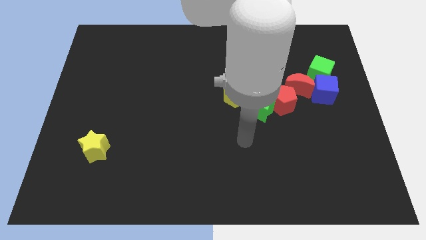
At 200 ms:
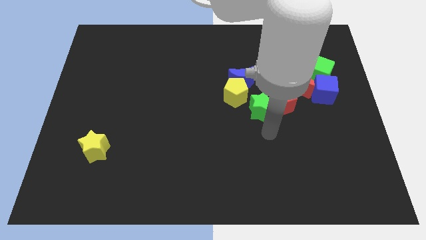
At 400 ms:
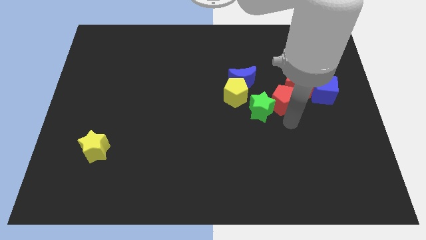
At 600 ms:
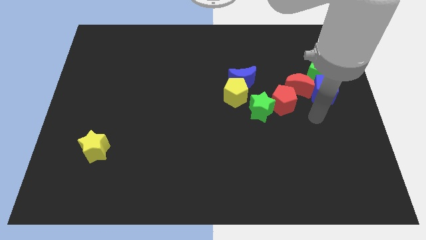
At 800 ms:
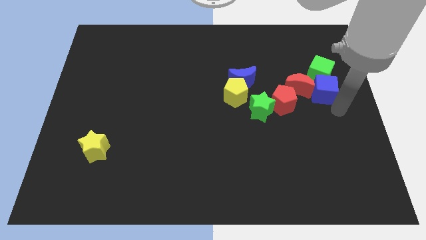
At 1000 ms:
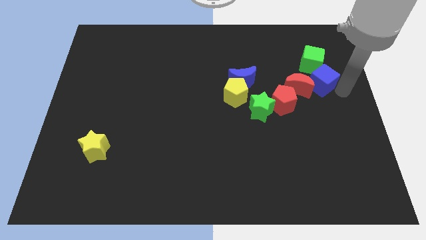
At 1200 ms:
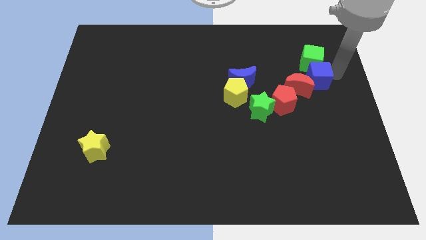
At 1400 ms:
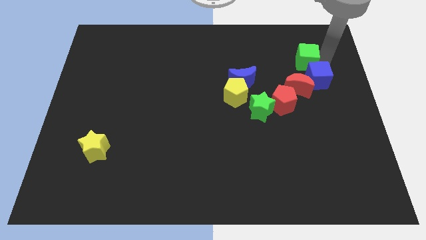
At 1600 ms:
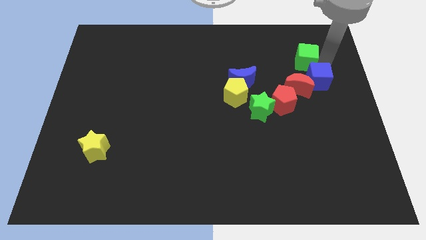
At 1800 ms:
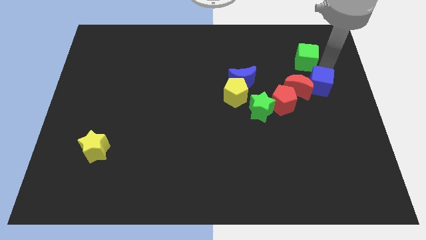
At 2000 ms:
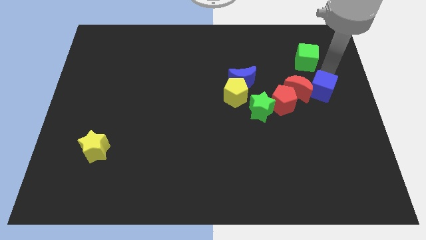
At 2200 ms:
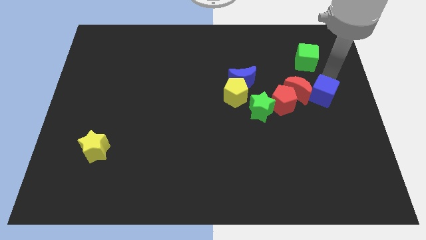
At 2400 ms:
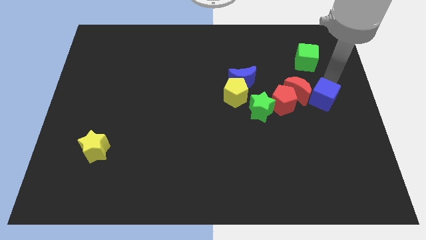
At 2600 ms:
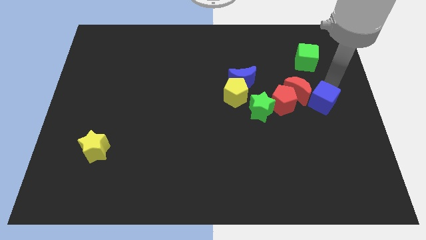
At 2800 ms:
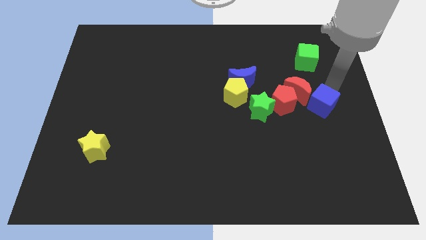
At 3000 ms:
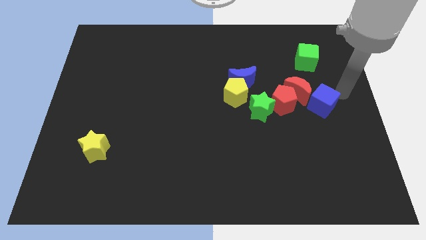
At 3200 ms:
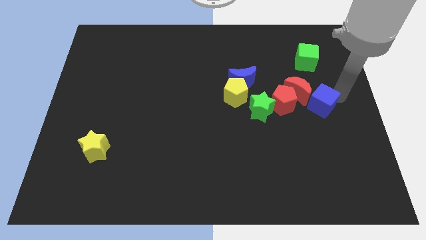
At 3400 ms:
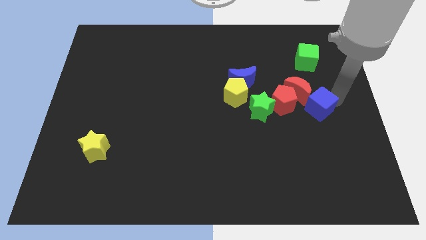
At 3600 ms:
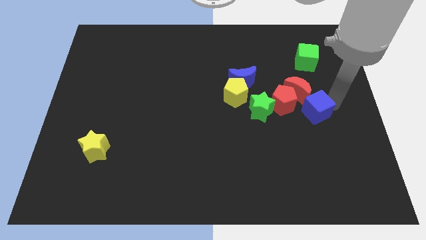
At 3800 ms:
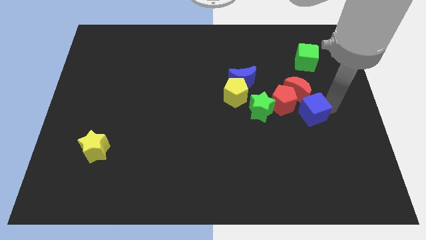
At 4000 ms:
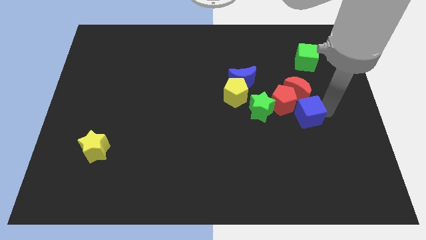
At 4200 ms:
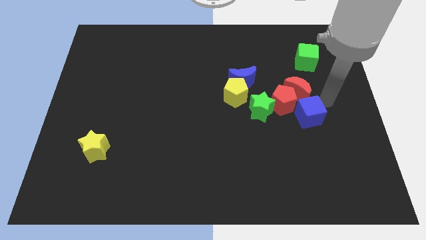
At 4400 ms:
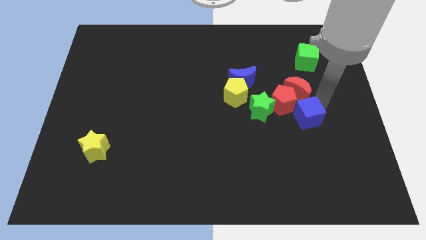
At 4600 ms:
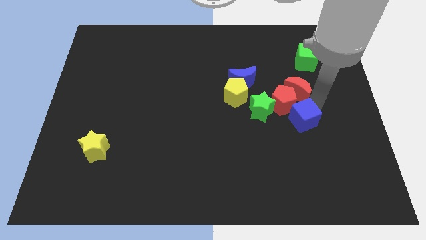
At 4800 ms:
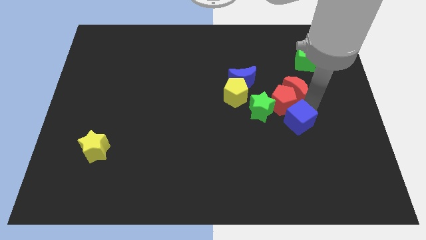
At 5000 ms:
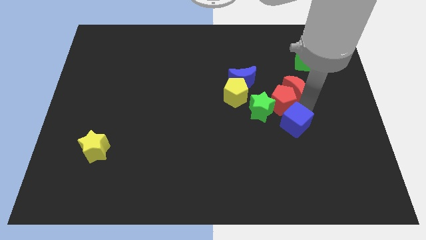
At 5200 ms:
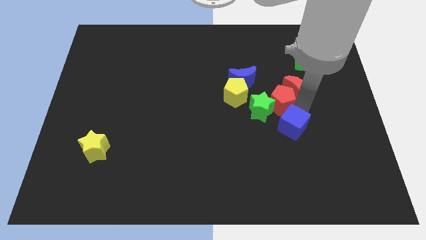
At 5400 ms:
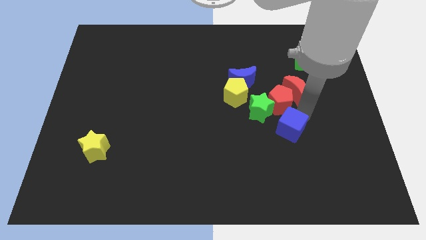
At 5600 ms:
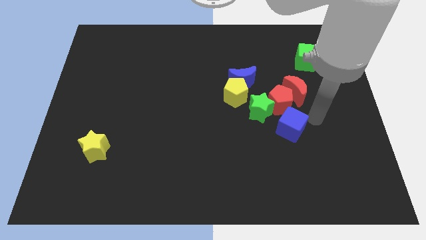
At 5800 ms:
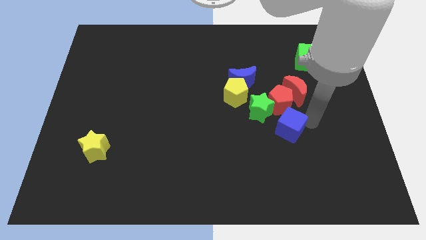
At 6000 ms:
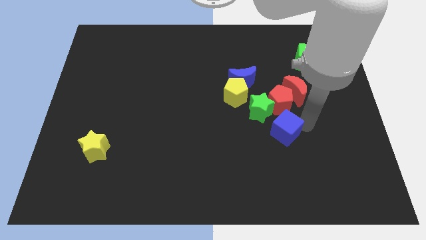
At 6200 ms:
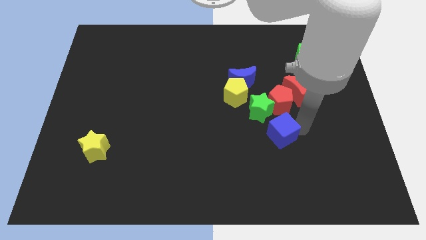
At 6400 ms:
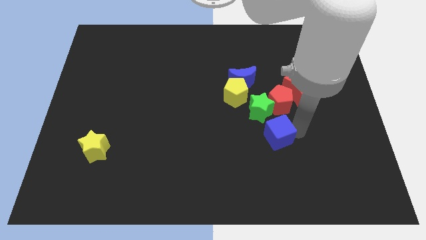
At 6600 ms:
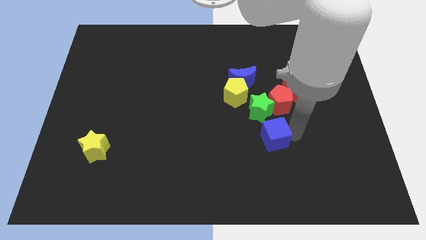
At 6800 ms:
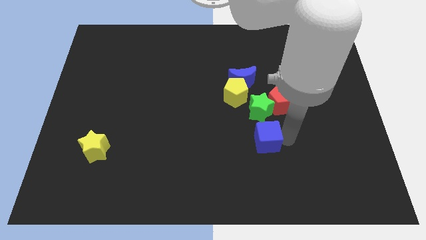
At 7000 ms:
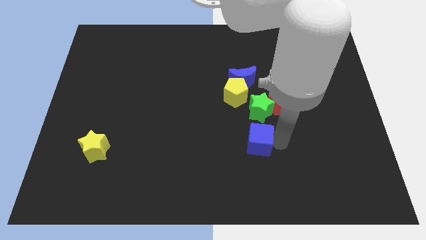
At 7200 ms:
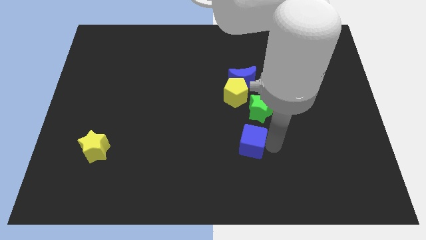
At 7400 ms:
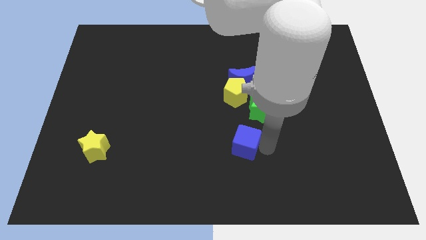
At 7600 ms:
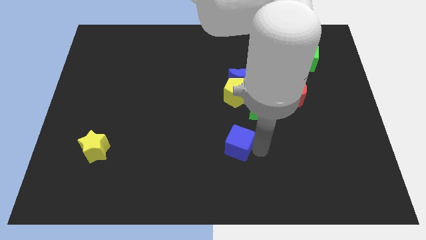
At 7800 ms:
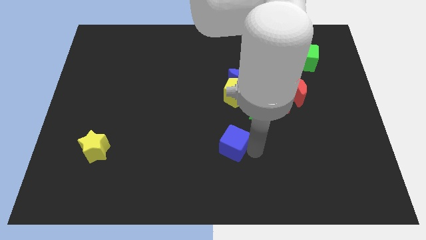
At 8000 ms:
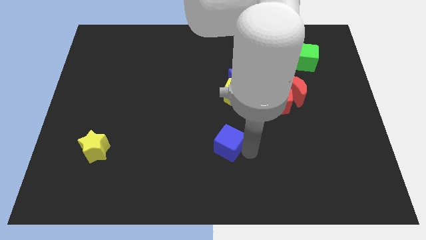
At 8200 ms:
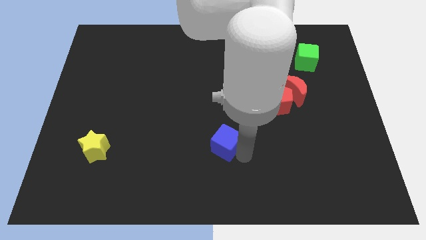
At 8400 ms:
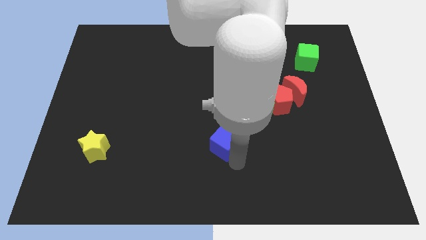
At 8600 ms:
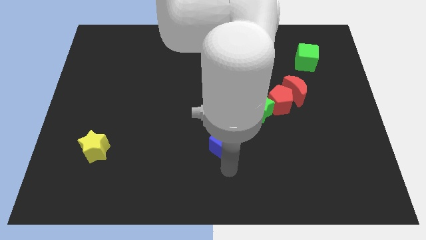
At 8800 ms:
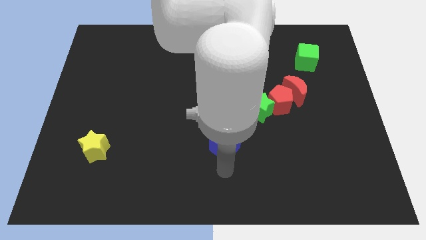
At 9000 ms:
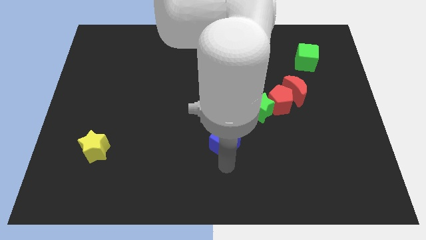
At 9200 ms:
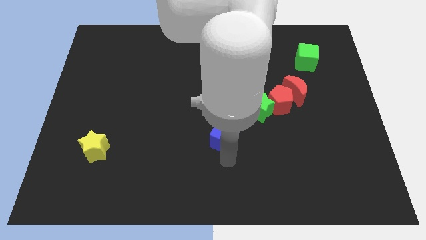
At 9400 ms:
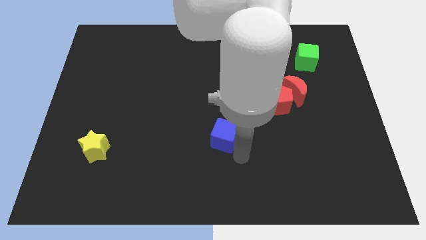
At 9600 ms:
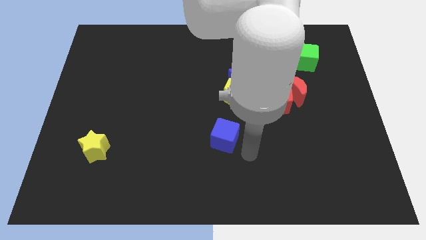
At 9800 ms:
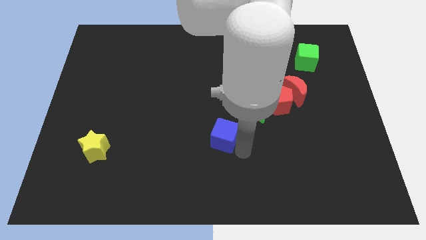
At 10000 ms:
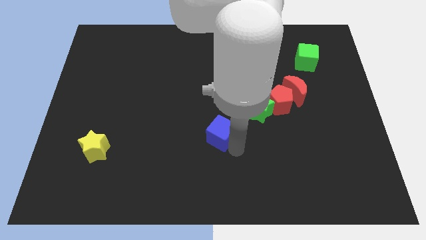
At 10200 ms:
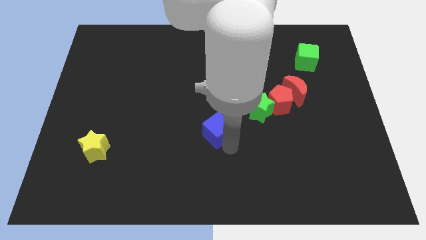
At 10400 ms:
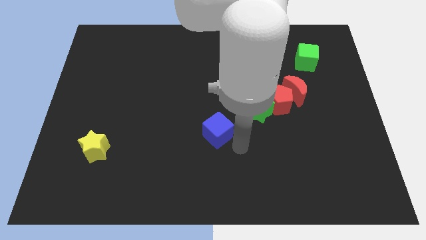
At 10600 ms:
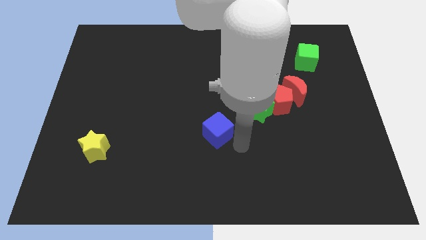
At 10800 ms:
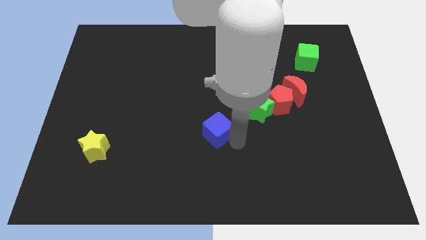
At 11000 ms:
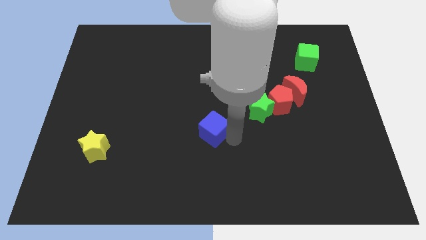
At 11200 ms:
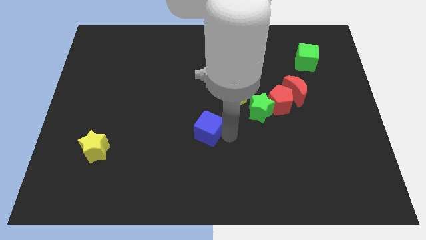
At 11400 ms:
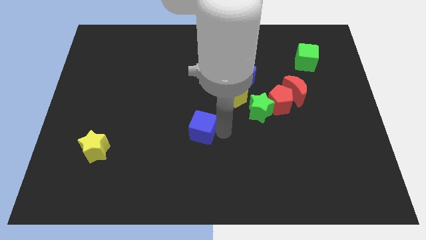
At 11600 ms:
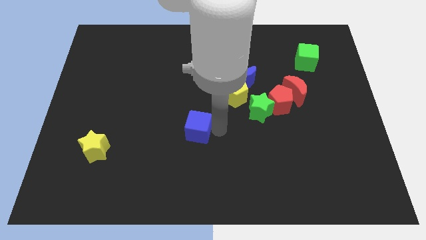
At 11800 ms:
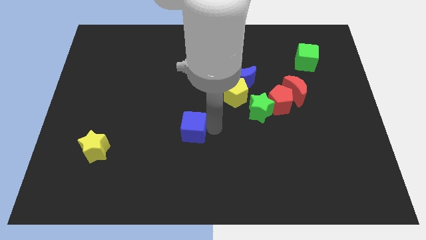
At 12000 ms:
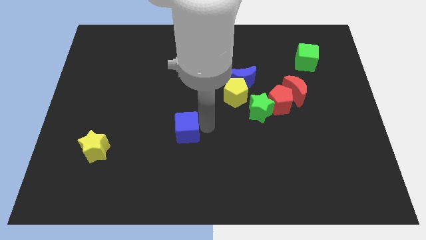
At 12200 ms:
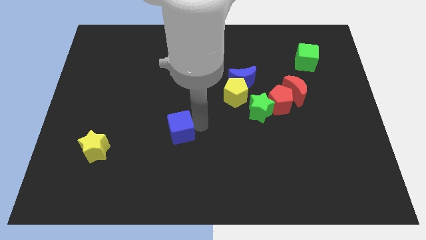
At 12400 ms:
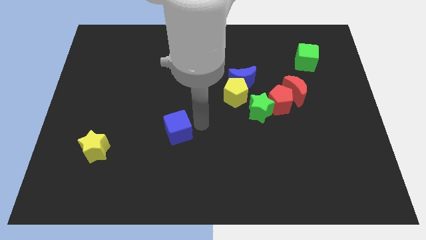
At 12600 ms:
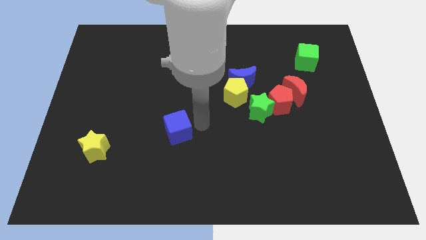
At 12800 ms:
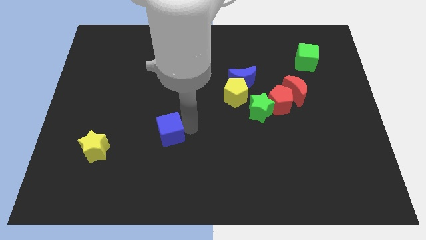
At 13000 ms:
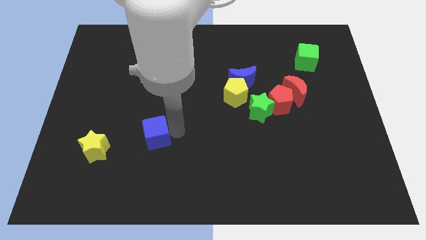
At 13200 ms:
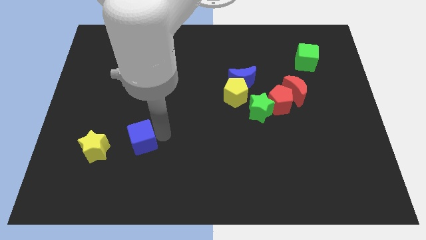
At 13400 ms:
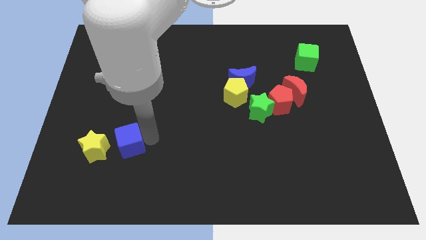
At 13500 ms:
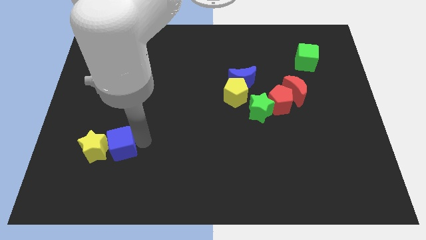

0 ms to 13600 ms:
put the blue cube towards the yellow star

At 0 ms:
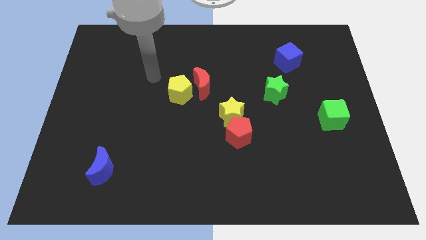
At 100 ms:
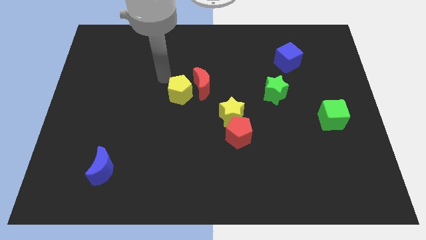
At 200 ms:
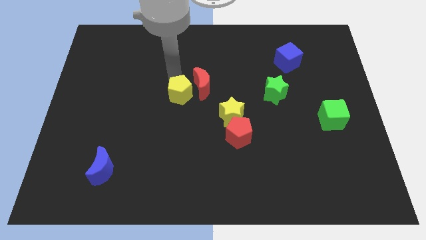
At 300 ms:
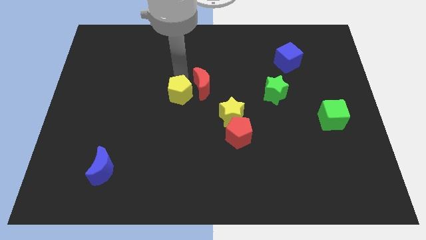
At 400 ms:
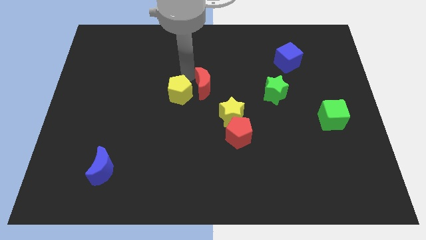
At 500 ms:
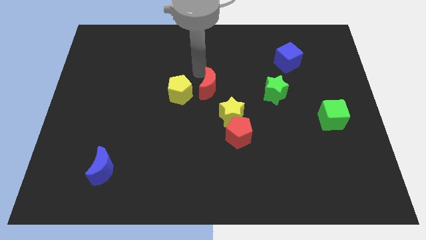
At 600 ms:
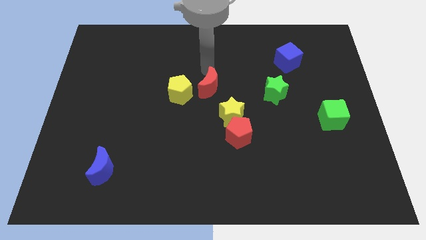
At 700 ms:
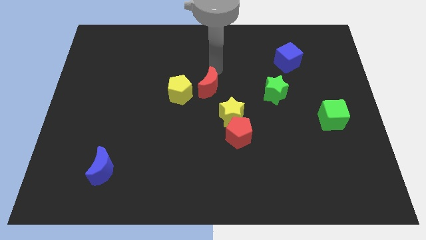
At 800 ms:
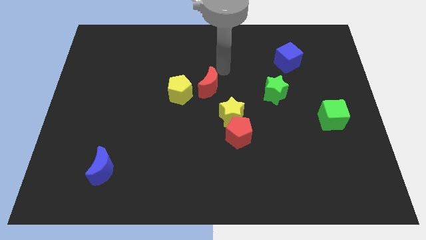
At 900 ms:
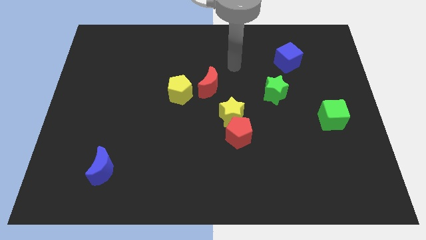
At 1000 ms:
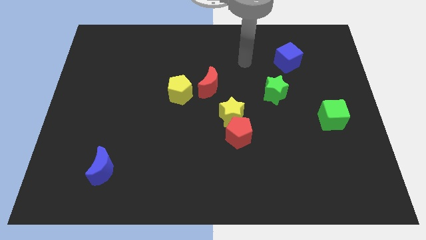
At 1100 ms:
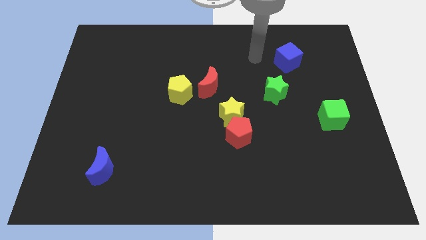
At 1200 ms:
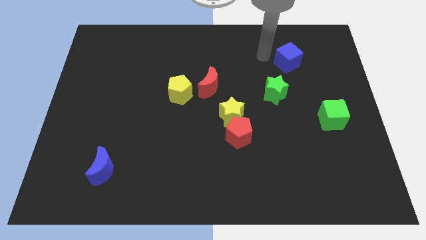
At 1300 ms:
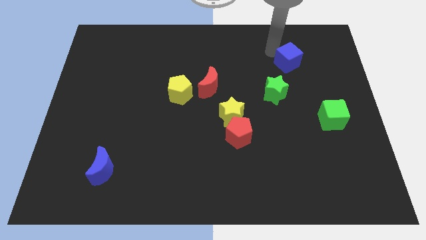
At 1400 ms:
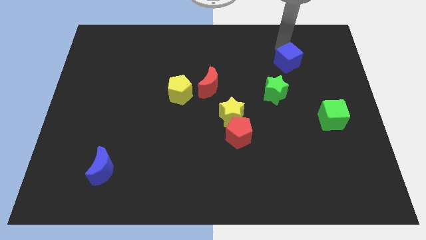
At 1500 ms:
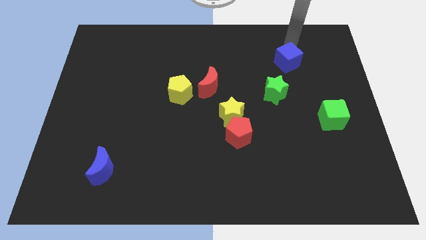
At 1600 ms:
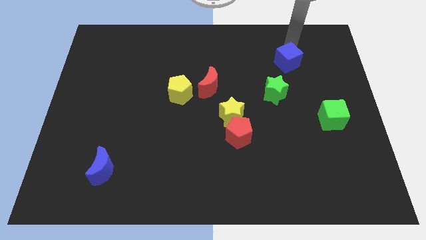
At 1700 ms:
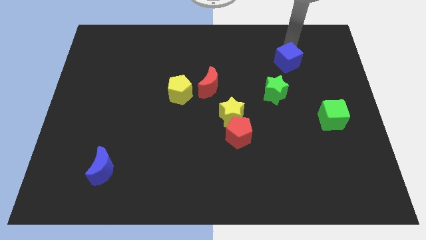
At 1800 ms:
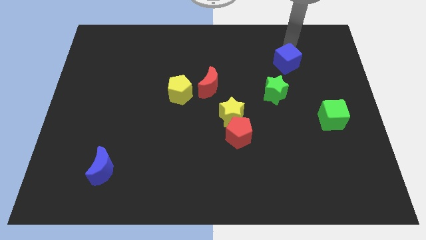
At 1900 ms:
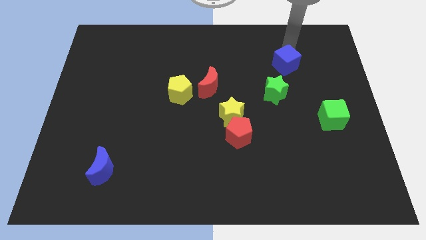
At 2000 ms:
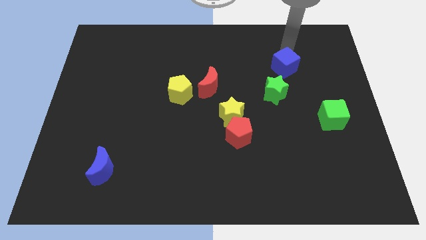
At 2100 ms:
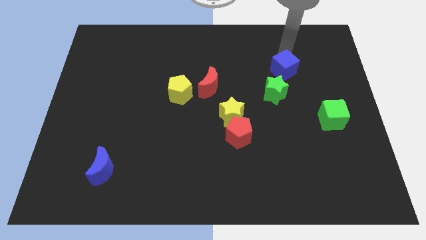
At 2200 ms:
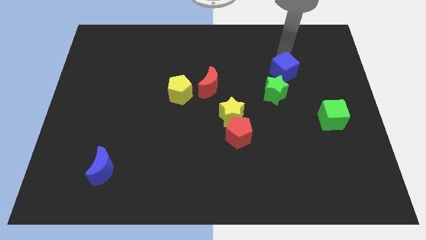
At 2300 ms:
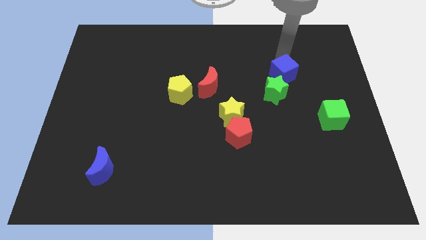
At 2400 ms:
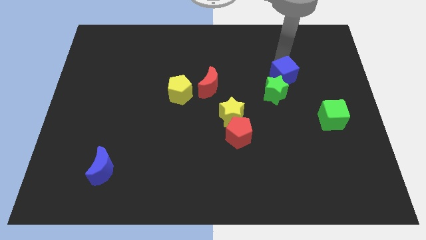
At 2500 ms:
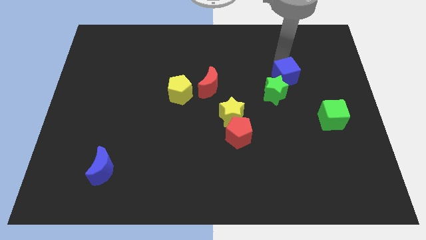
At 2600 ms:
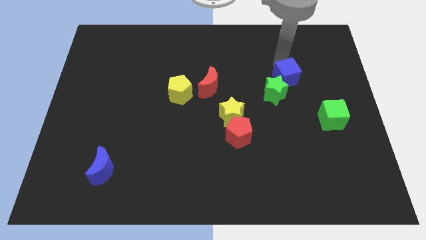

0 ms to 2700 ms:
put the blue cube to the green star
